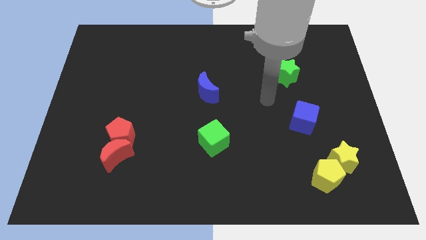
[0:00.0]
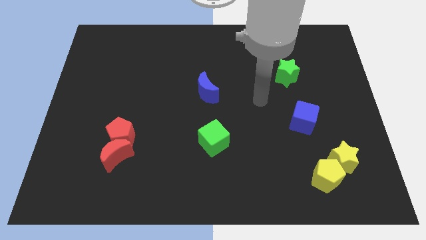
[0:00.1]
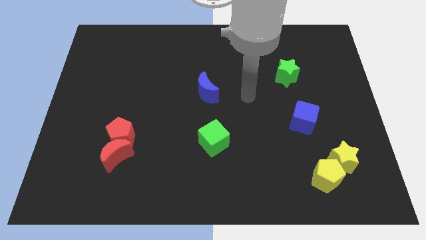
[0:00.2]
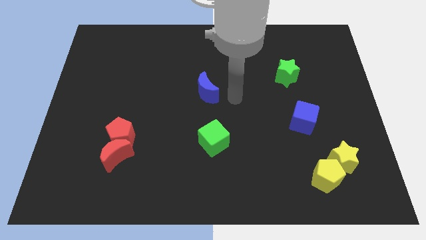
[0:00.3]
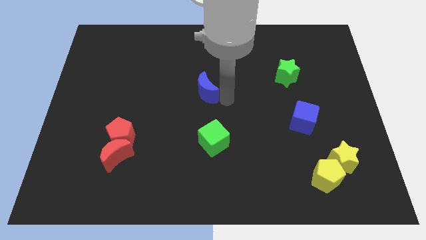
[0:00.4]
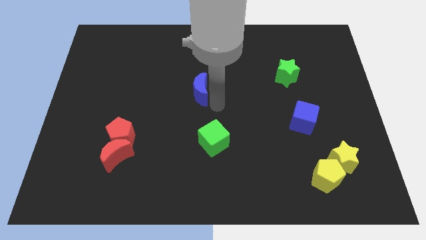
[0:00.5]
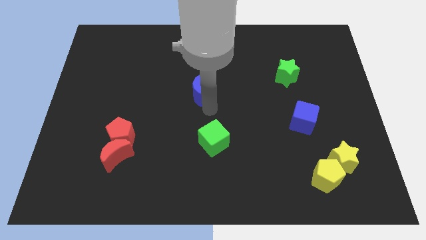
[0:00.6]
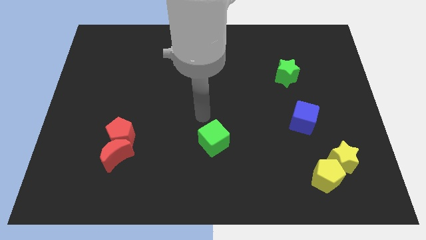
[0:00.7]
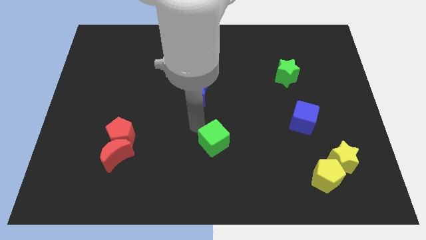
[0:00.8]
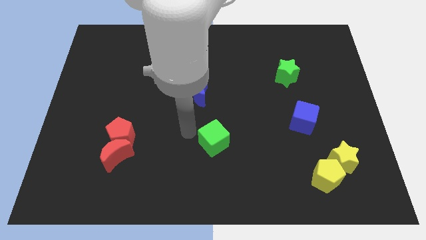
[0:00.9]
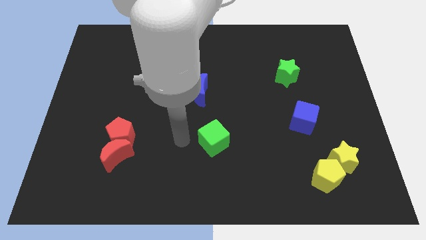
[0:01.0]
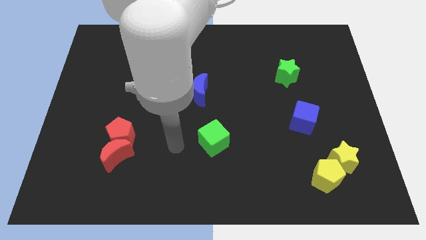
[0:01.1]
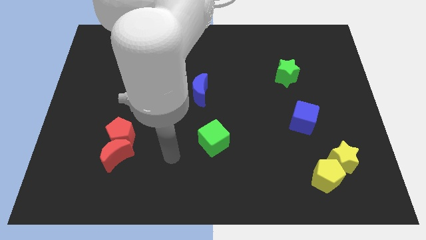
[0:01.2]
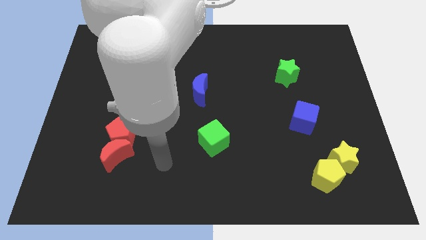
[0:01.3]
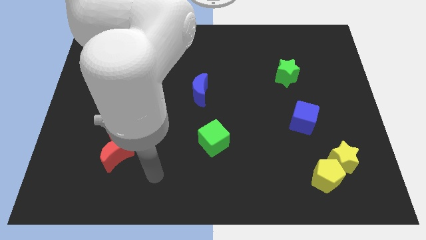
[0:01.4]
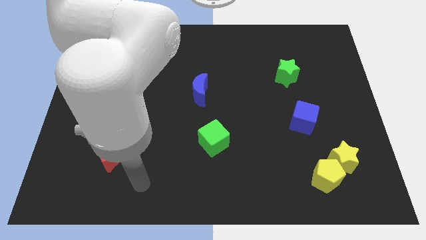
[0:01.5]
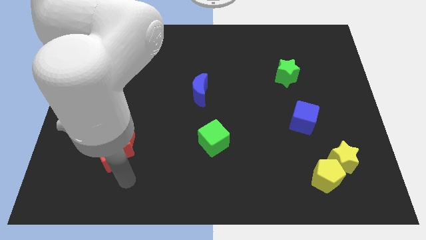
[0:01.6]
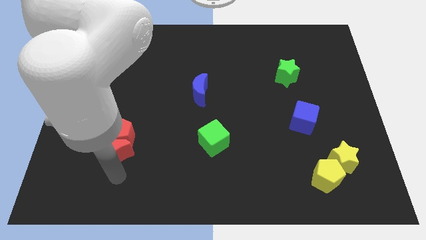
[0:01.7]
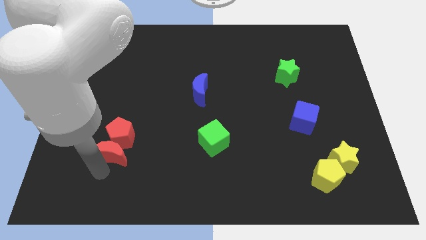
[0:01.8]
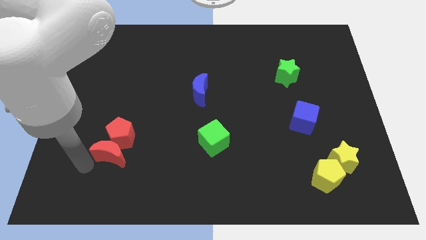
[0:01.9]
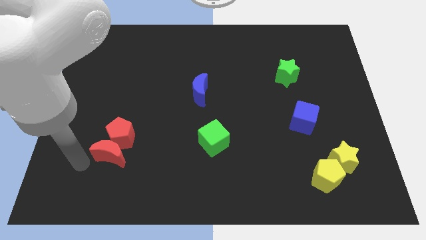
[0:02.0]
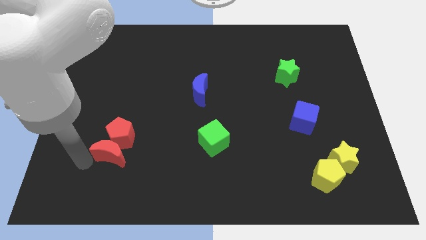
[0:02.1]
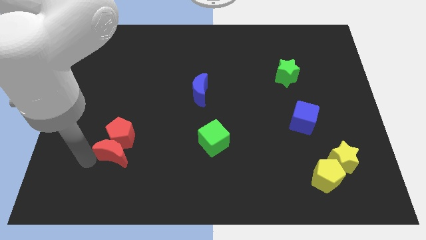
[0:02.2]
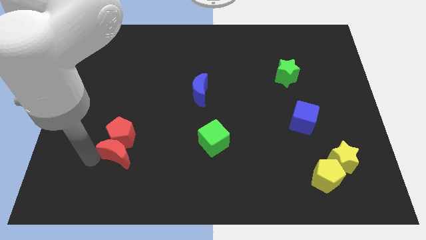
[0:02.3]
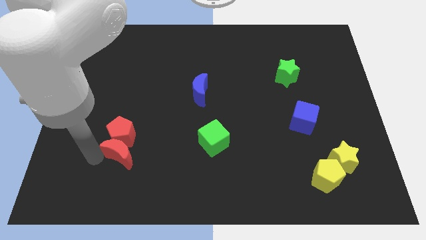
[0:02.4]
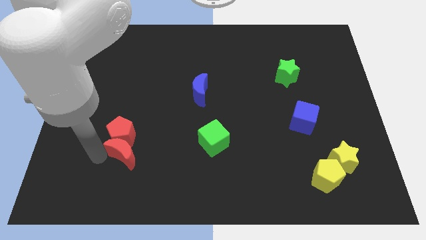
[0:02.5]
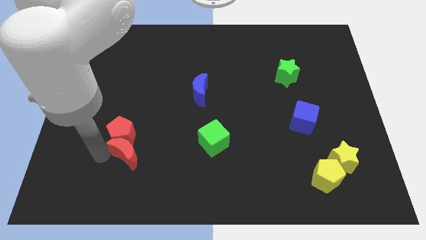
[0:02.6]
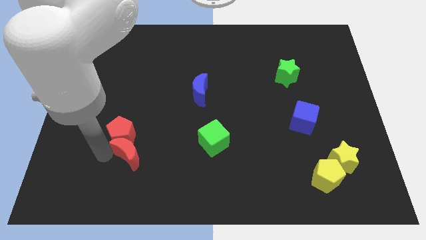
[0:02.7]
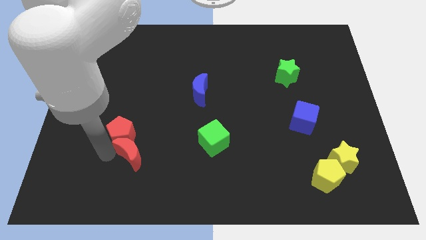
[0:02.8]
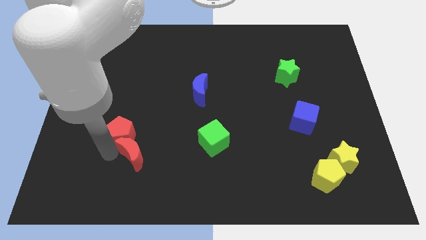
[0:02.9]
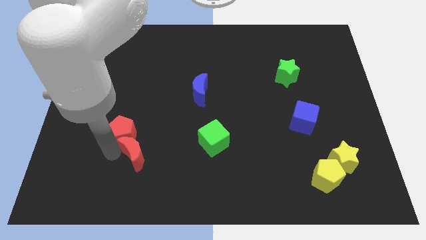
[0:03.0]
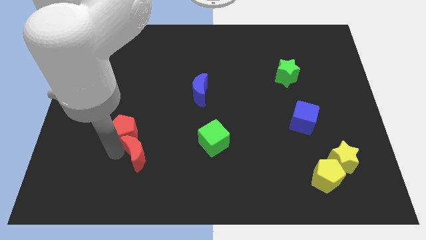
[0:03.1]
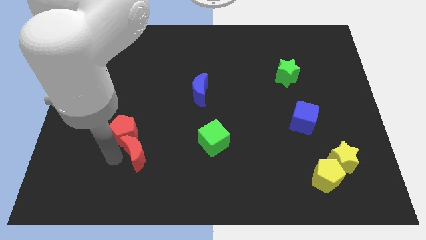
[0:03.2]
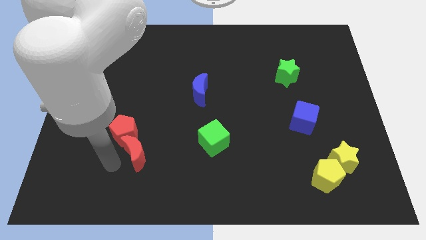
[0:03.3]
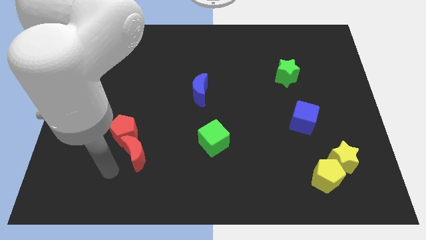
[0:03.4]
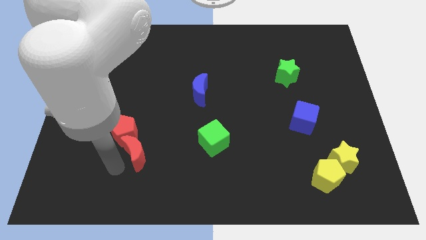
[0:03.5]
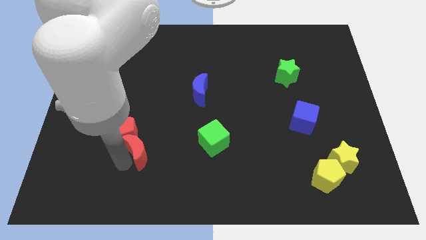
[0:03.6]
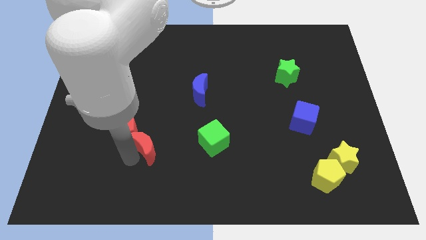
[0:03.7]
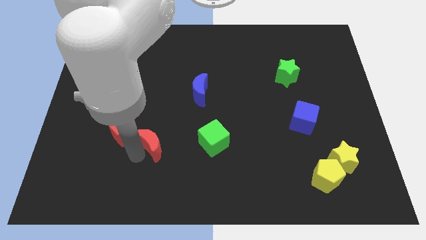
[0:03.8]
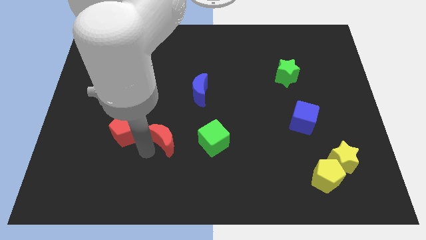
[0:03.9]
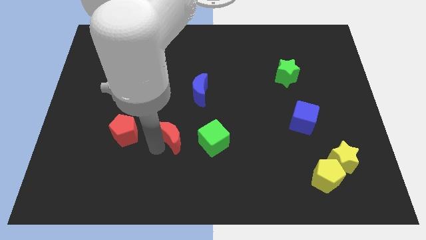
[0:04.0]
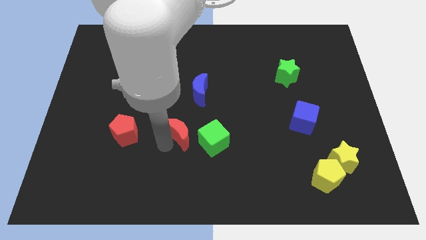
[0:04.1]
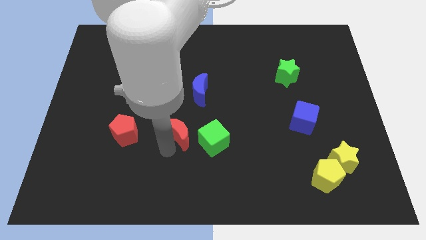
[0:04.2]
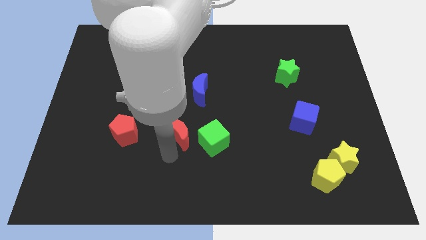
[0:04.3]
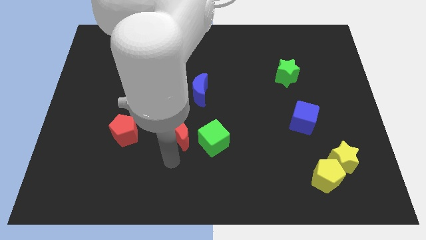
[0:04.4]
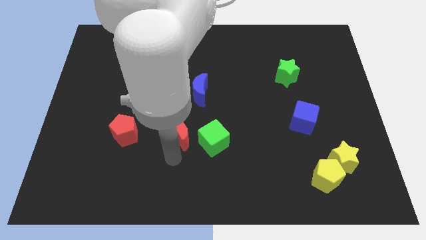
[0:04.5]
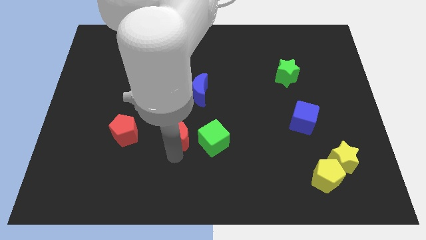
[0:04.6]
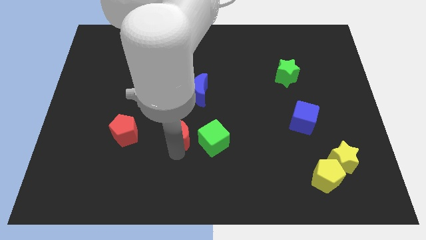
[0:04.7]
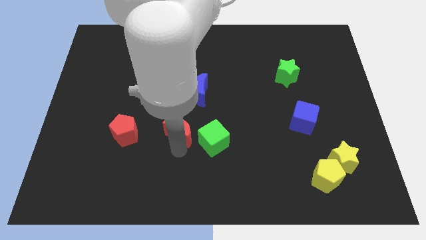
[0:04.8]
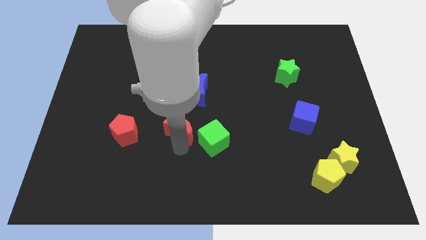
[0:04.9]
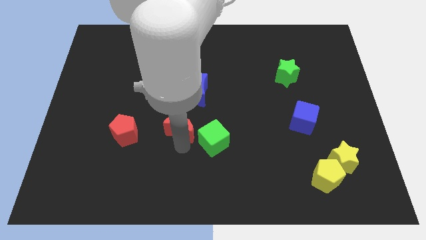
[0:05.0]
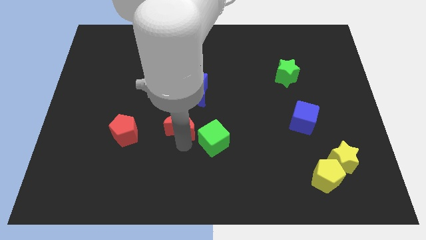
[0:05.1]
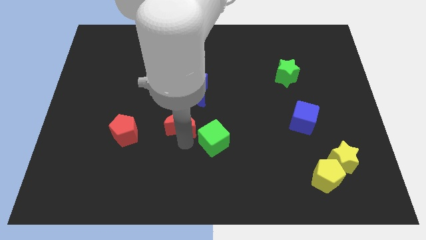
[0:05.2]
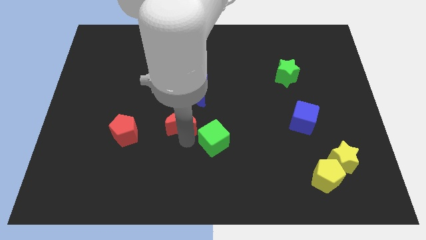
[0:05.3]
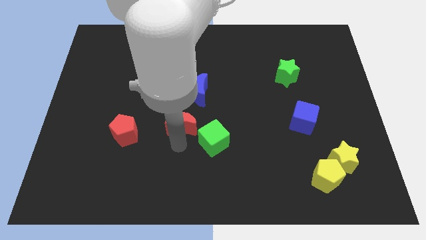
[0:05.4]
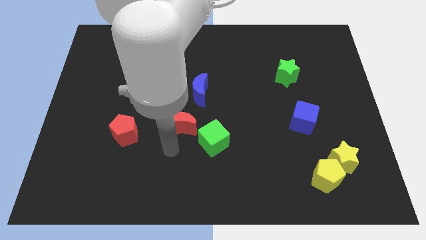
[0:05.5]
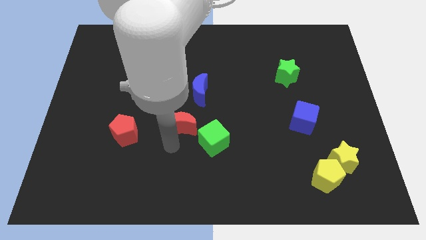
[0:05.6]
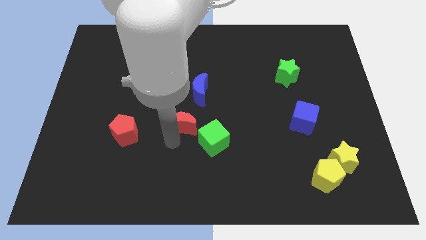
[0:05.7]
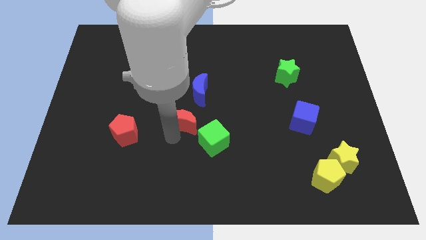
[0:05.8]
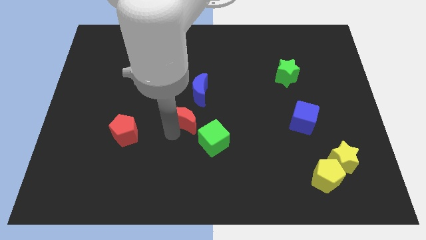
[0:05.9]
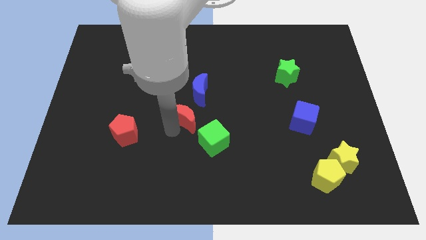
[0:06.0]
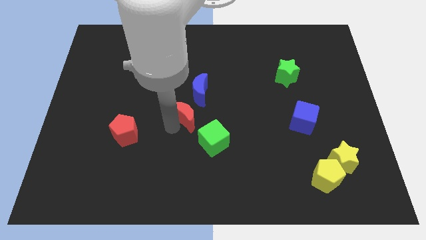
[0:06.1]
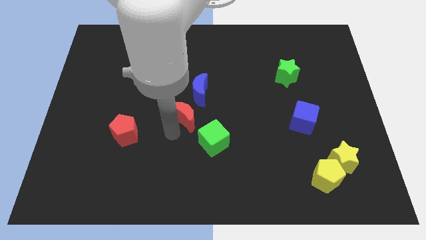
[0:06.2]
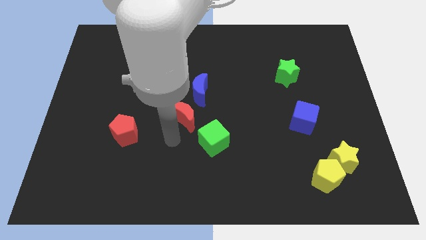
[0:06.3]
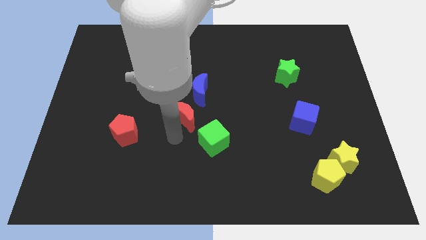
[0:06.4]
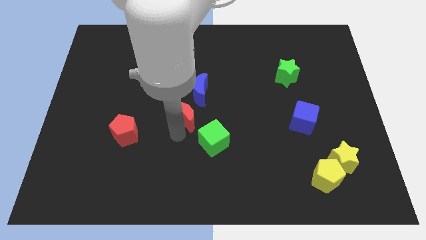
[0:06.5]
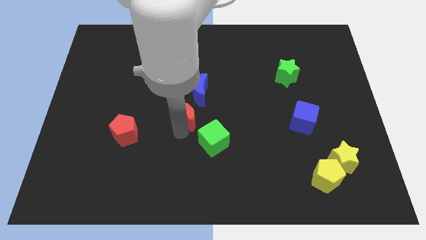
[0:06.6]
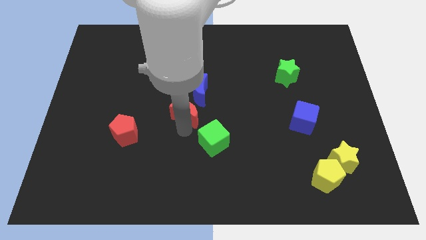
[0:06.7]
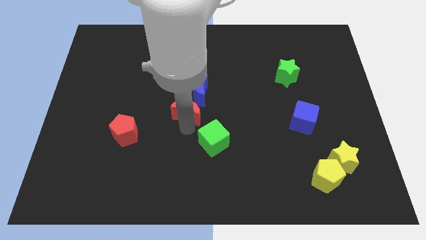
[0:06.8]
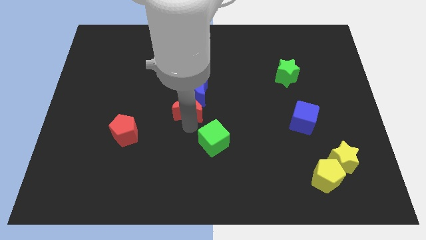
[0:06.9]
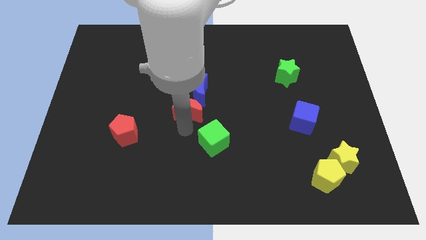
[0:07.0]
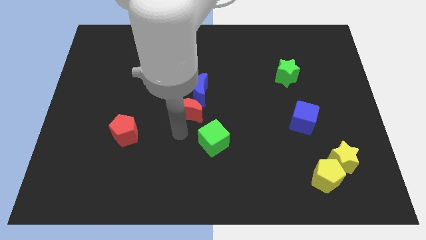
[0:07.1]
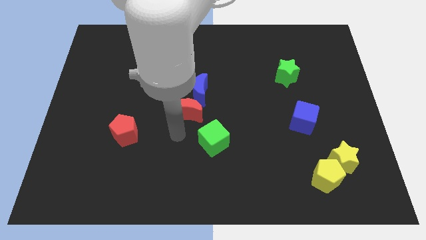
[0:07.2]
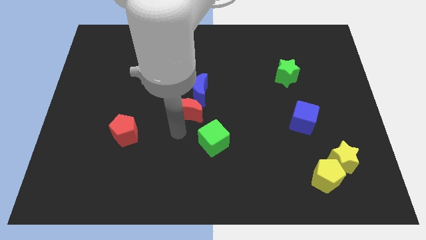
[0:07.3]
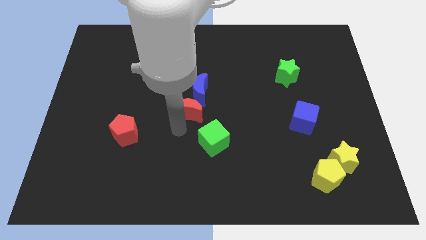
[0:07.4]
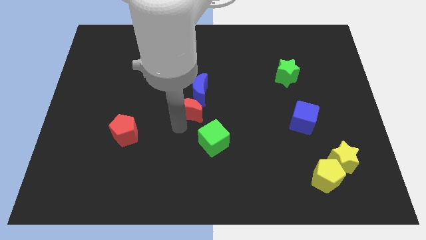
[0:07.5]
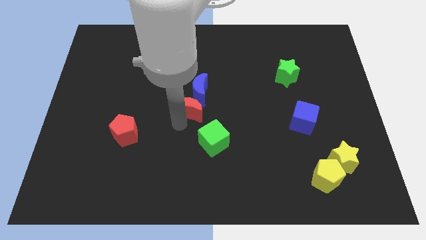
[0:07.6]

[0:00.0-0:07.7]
move the red moon close to the blue moon
